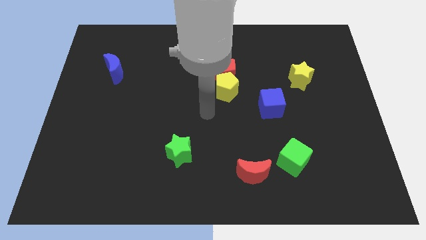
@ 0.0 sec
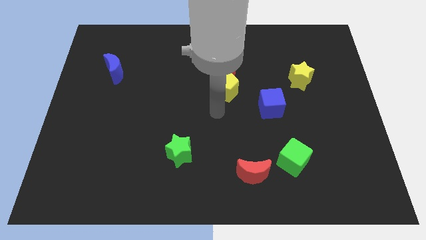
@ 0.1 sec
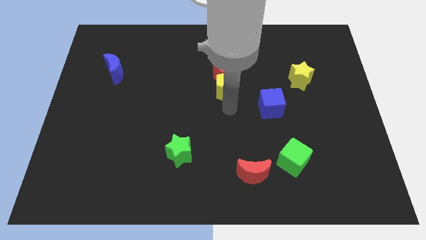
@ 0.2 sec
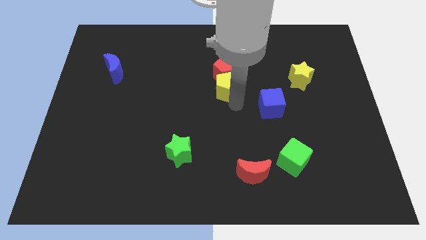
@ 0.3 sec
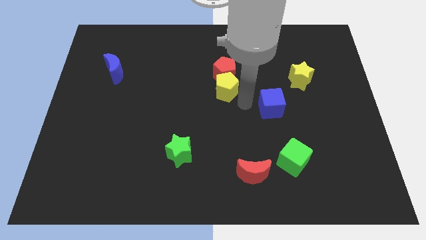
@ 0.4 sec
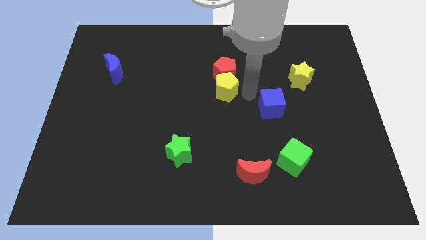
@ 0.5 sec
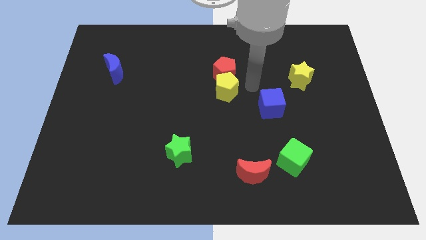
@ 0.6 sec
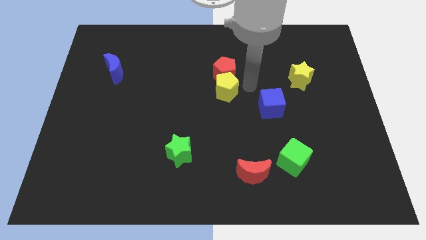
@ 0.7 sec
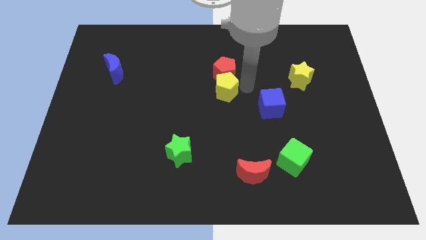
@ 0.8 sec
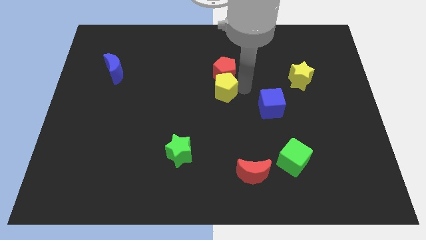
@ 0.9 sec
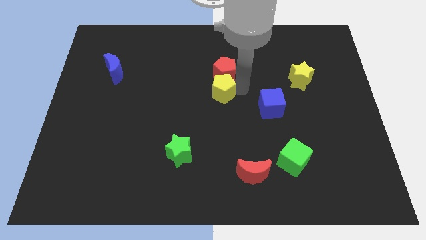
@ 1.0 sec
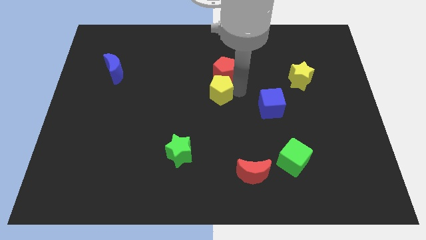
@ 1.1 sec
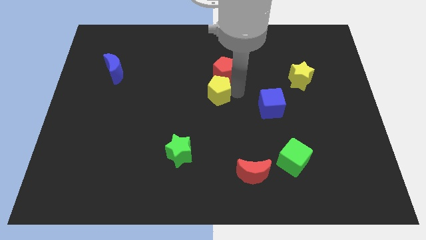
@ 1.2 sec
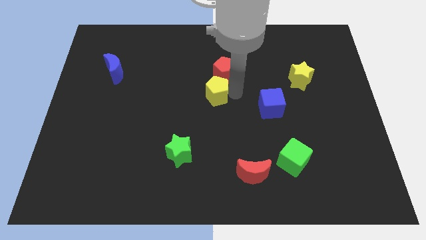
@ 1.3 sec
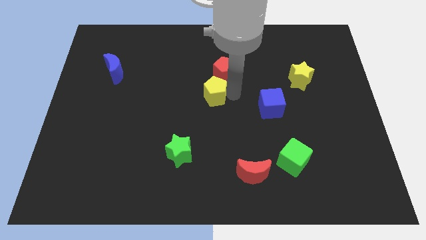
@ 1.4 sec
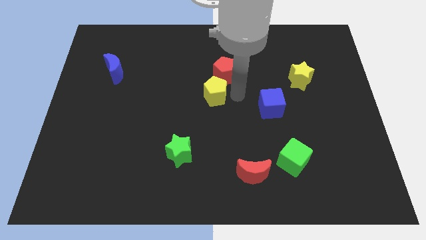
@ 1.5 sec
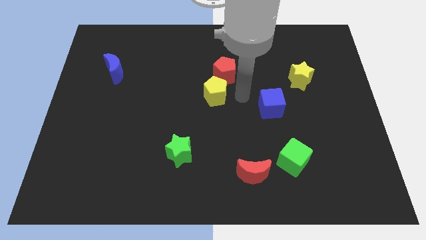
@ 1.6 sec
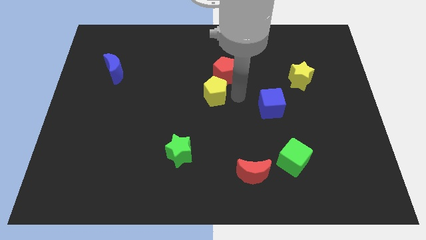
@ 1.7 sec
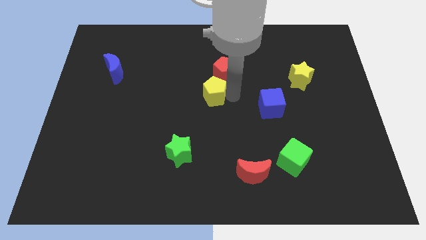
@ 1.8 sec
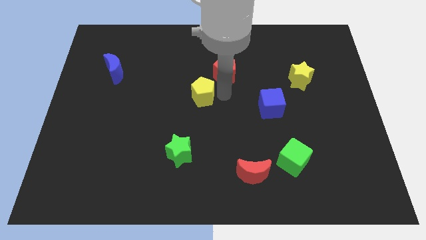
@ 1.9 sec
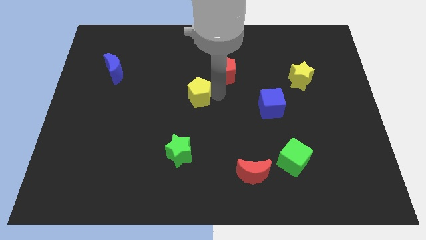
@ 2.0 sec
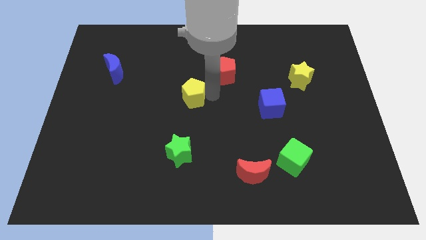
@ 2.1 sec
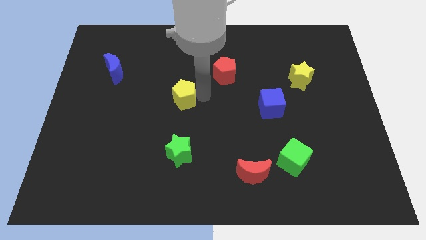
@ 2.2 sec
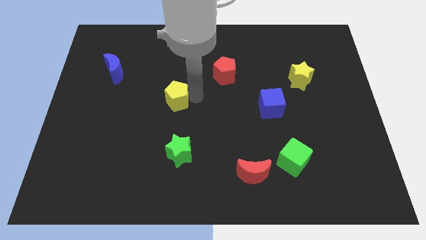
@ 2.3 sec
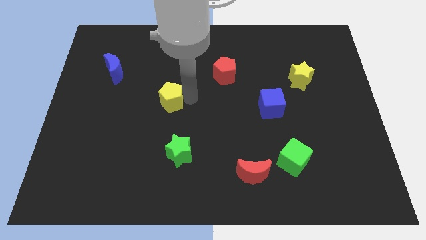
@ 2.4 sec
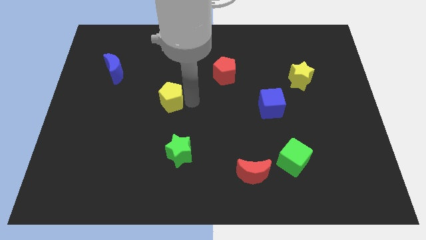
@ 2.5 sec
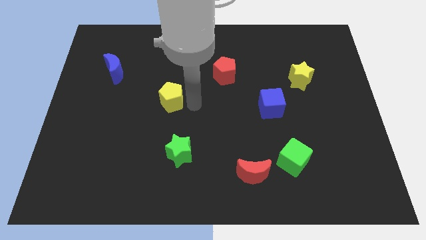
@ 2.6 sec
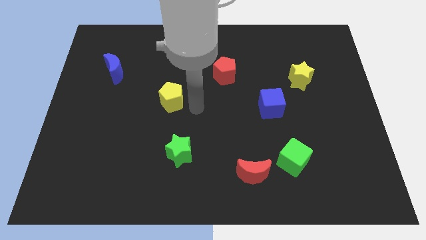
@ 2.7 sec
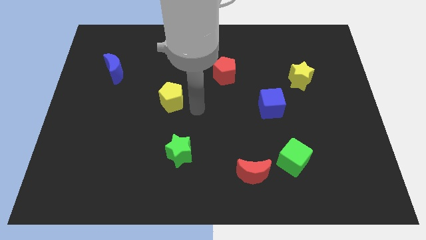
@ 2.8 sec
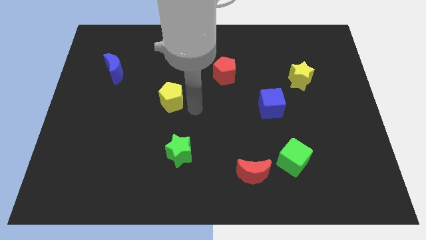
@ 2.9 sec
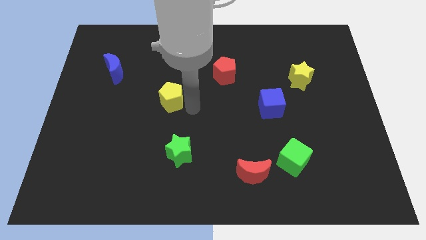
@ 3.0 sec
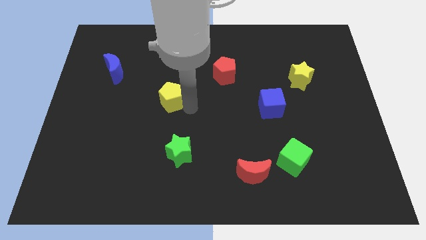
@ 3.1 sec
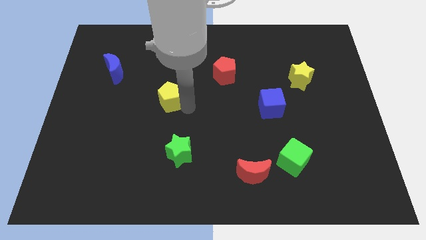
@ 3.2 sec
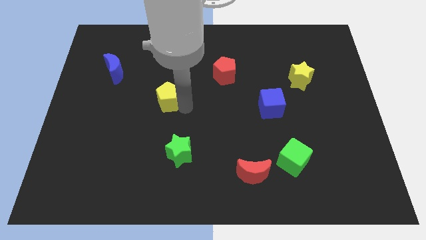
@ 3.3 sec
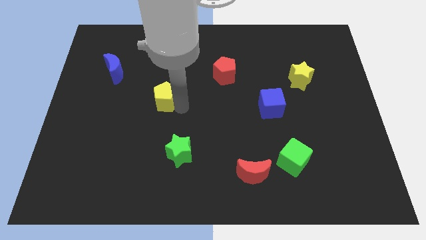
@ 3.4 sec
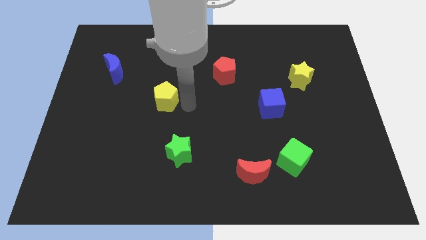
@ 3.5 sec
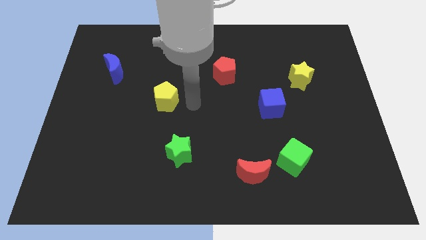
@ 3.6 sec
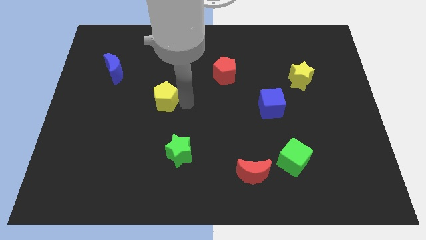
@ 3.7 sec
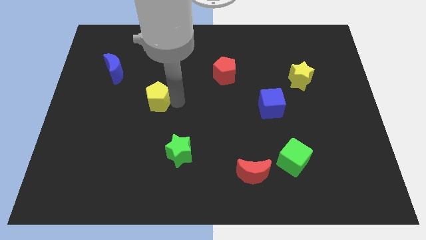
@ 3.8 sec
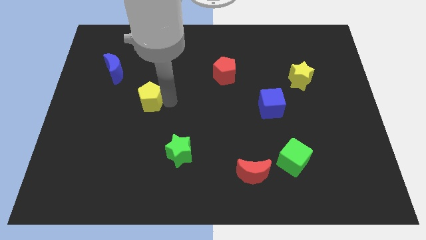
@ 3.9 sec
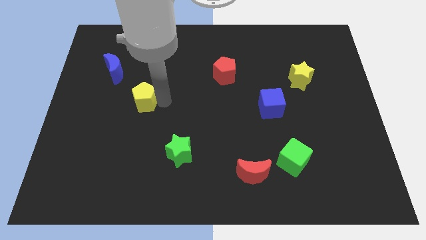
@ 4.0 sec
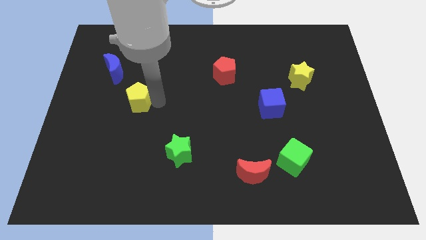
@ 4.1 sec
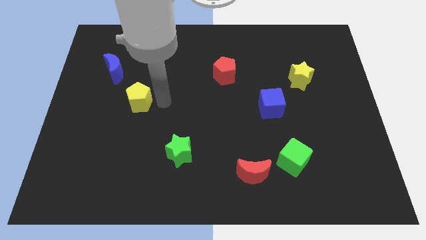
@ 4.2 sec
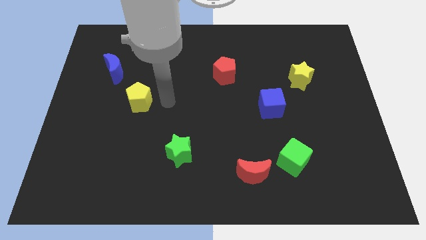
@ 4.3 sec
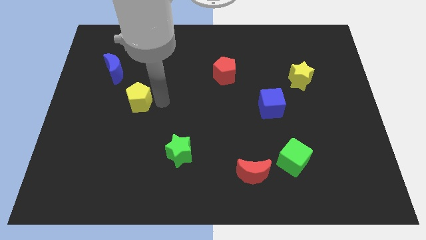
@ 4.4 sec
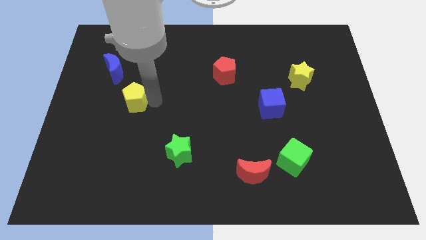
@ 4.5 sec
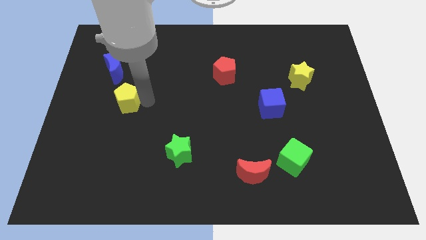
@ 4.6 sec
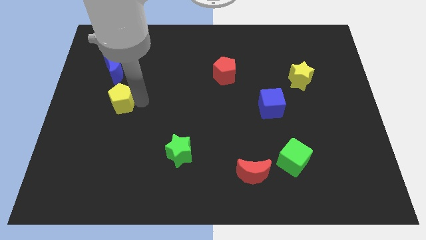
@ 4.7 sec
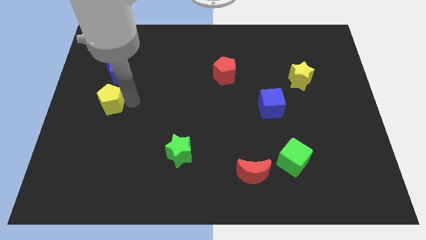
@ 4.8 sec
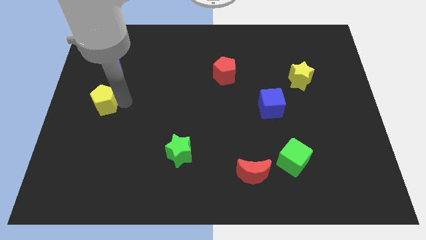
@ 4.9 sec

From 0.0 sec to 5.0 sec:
move the yellow pentagon to the left side

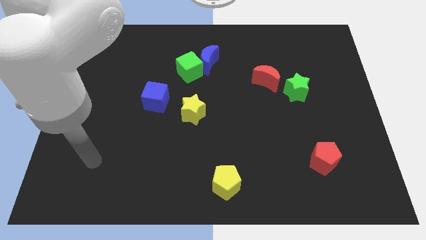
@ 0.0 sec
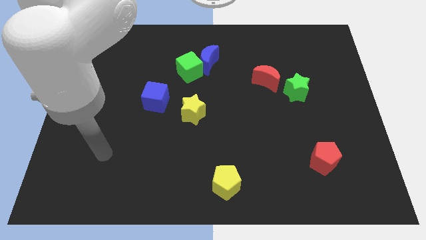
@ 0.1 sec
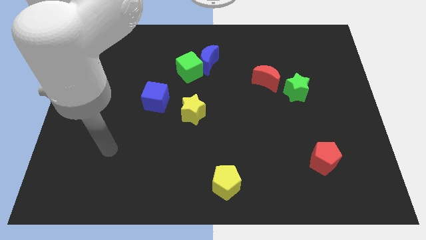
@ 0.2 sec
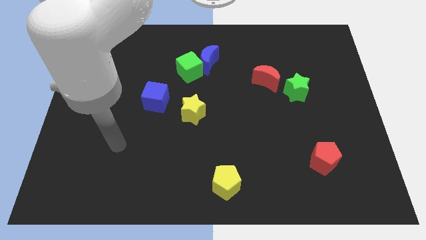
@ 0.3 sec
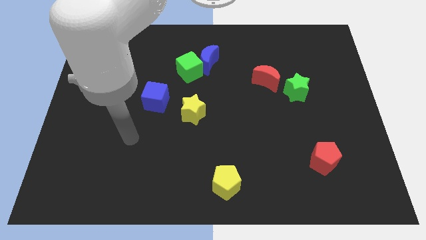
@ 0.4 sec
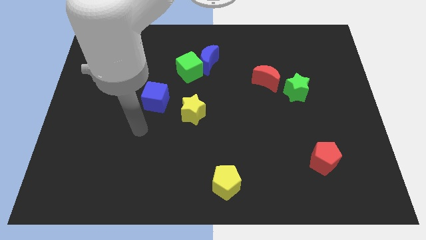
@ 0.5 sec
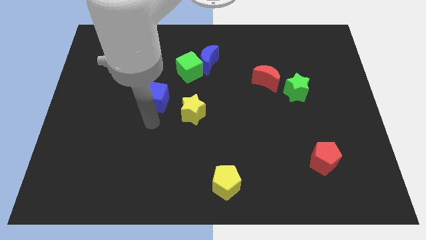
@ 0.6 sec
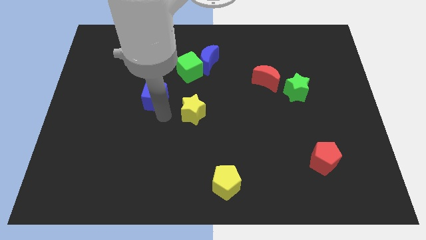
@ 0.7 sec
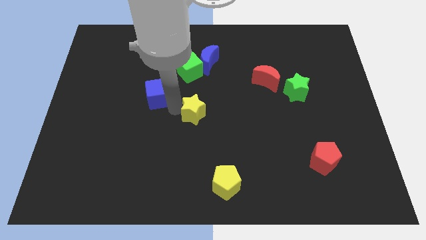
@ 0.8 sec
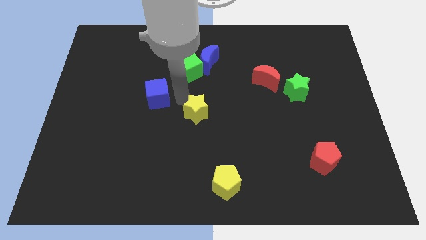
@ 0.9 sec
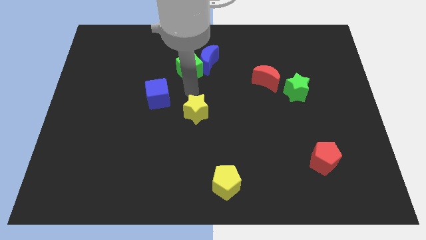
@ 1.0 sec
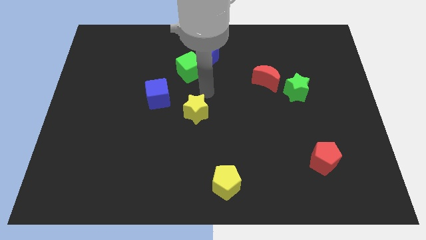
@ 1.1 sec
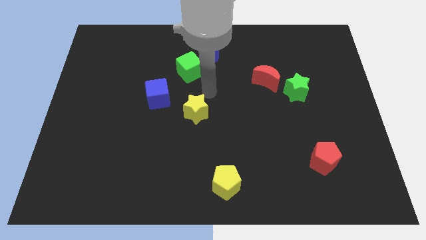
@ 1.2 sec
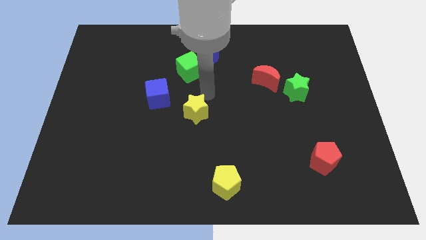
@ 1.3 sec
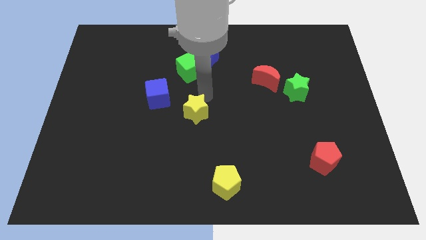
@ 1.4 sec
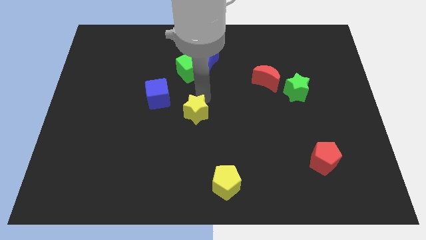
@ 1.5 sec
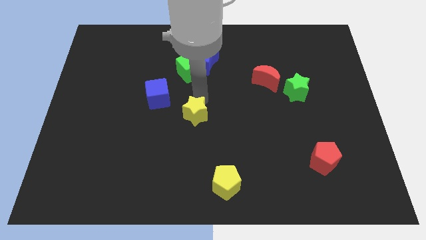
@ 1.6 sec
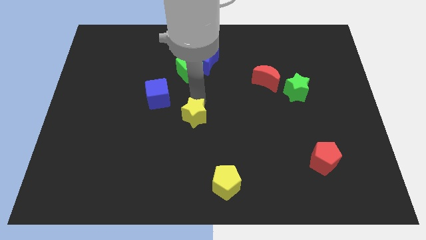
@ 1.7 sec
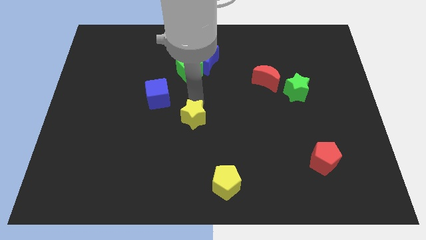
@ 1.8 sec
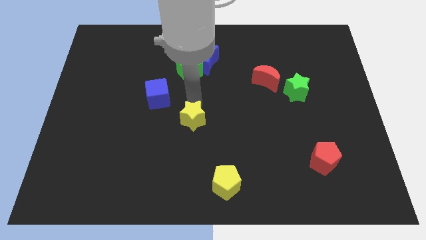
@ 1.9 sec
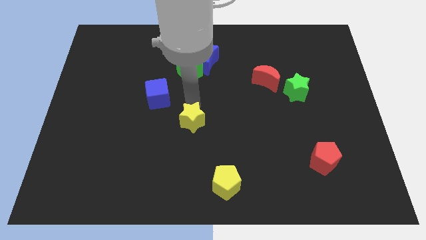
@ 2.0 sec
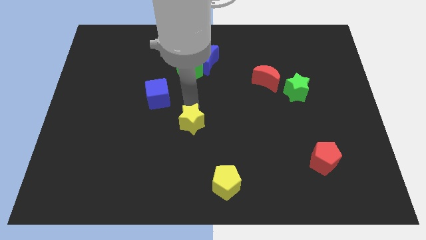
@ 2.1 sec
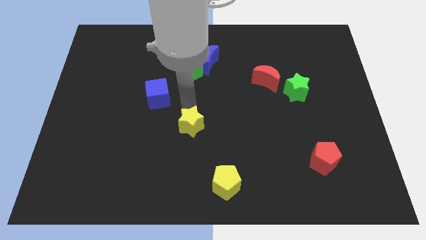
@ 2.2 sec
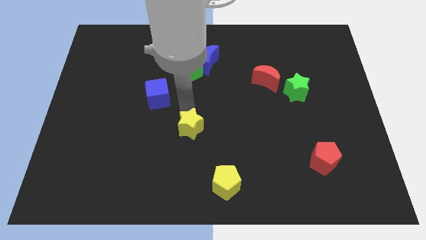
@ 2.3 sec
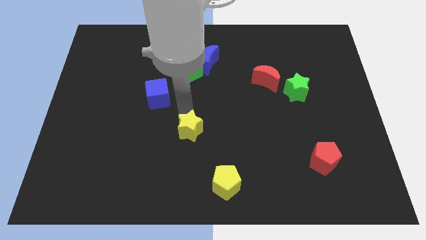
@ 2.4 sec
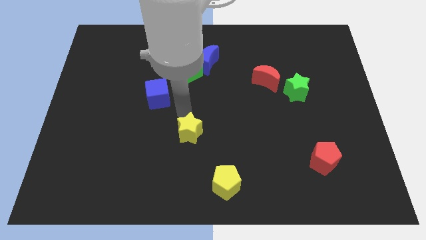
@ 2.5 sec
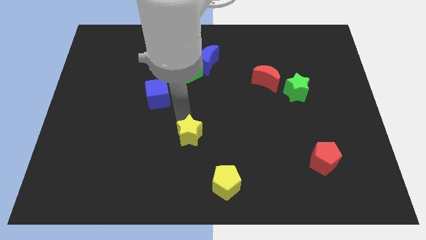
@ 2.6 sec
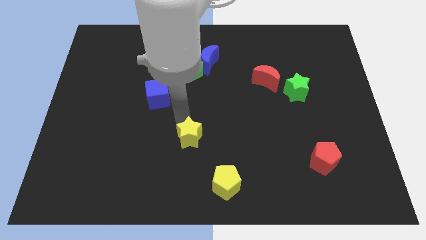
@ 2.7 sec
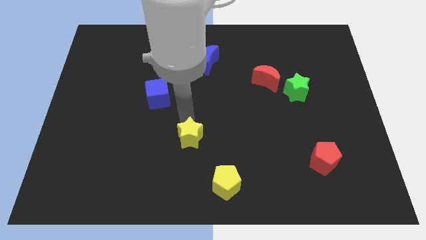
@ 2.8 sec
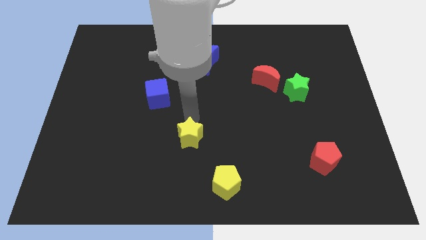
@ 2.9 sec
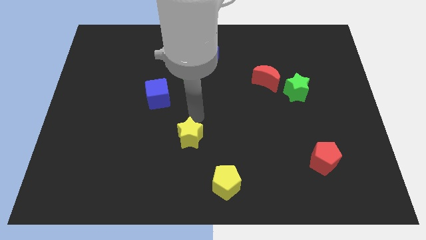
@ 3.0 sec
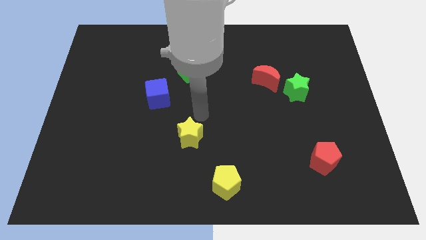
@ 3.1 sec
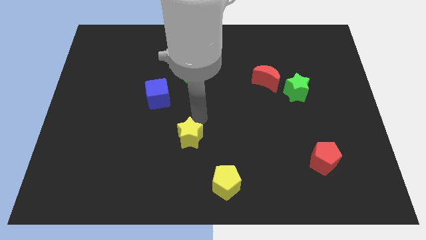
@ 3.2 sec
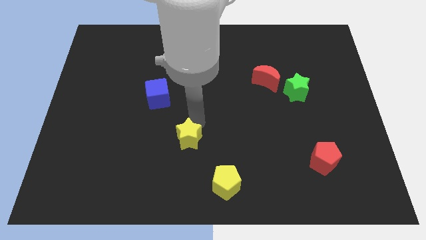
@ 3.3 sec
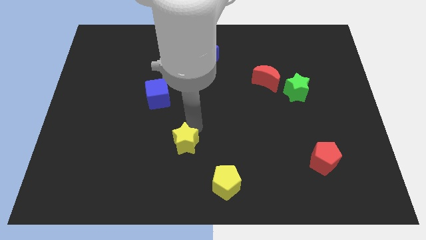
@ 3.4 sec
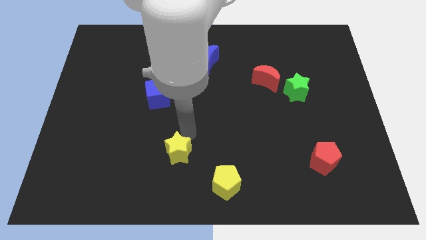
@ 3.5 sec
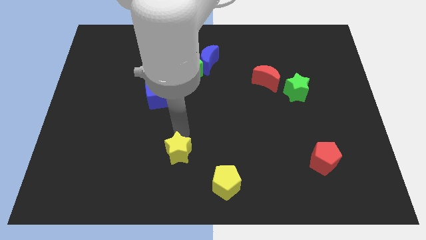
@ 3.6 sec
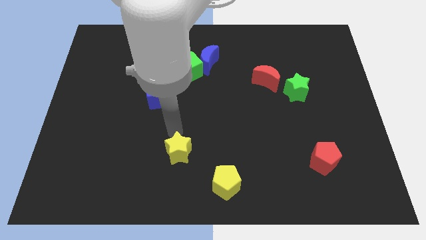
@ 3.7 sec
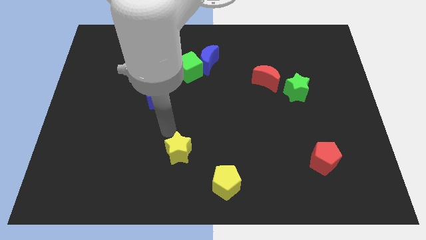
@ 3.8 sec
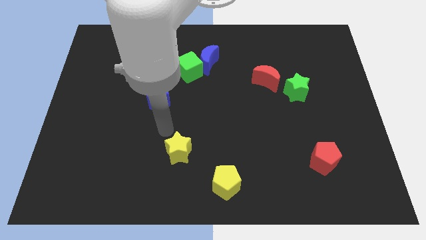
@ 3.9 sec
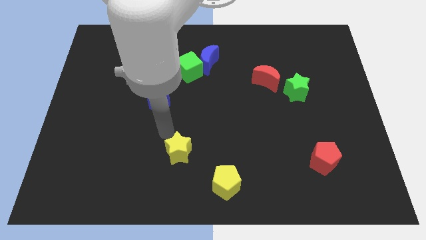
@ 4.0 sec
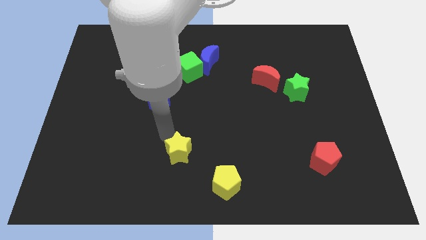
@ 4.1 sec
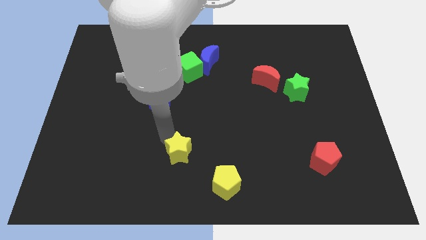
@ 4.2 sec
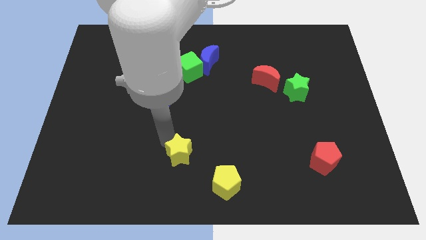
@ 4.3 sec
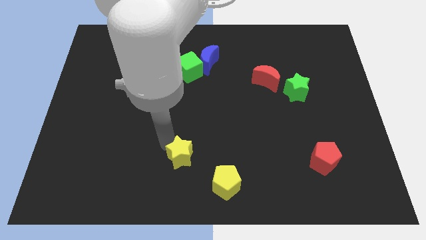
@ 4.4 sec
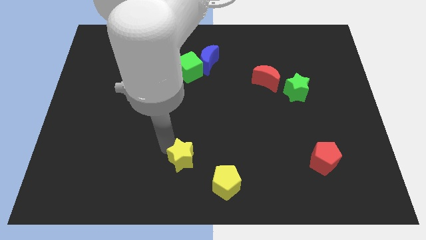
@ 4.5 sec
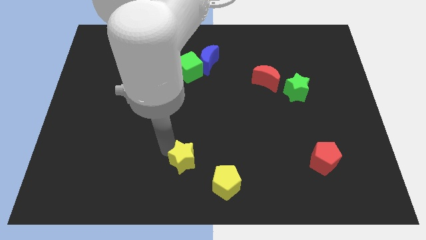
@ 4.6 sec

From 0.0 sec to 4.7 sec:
push the yellow star to the bottom
